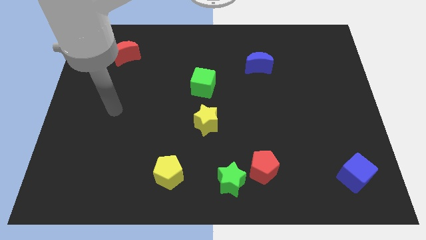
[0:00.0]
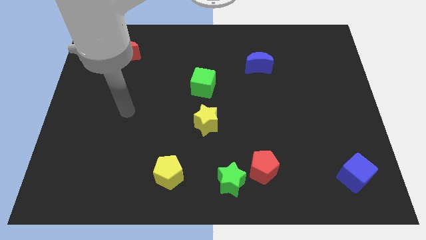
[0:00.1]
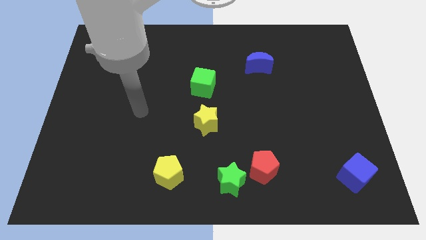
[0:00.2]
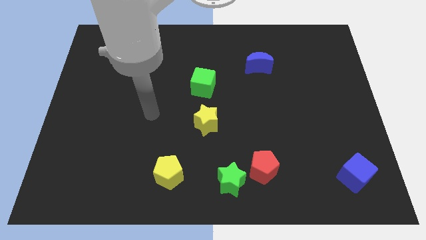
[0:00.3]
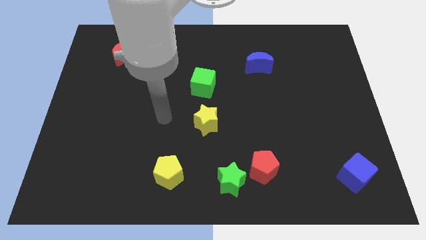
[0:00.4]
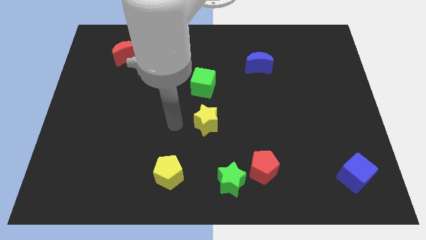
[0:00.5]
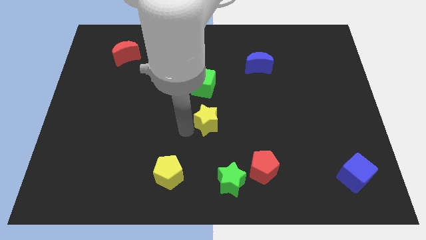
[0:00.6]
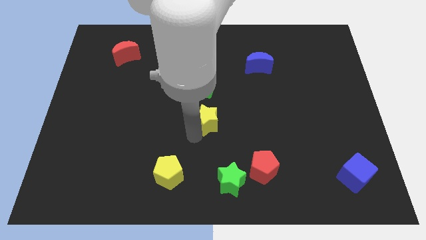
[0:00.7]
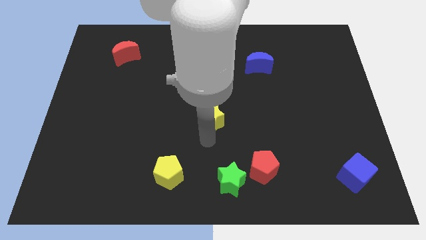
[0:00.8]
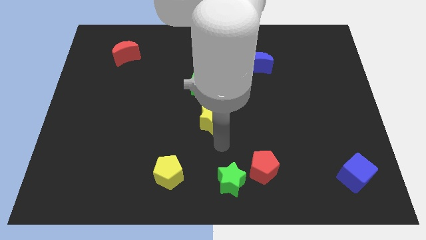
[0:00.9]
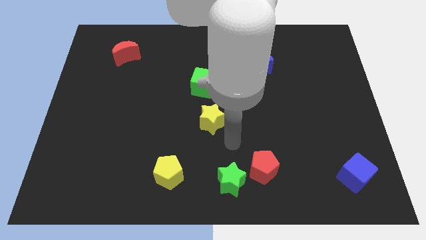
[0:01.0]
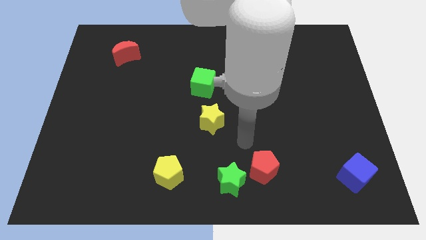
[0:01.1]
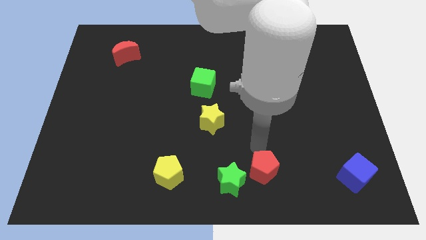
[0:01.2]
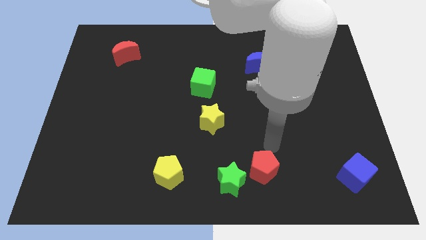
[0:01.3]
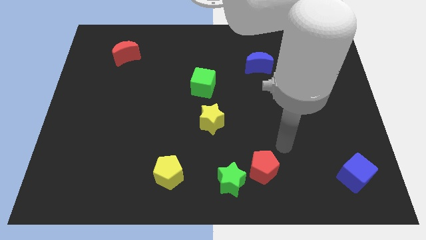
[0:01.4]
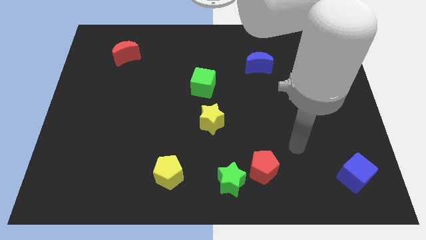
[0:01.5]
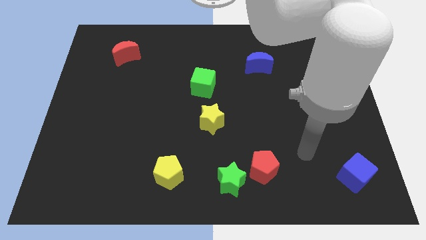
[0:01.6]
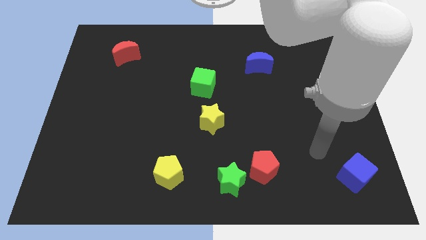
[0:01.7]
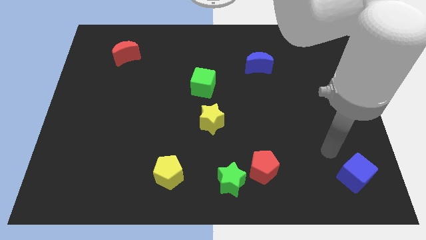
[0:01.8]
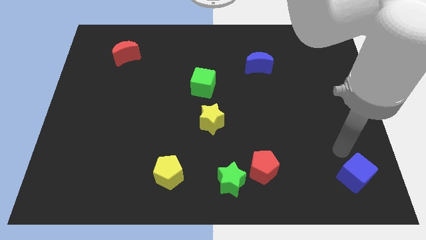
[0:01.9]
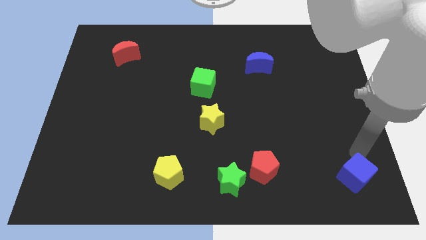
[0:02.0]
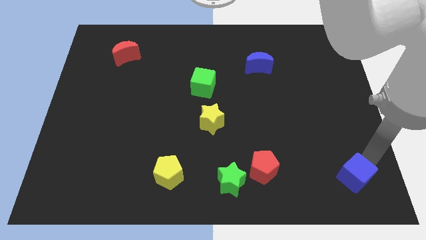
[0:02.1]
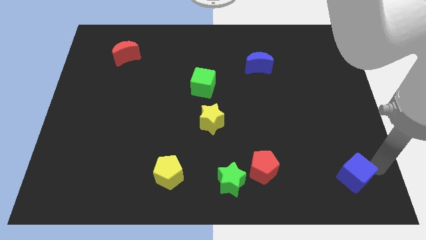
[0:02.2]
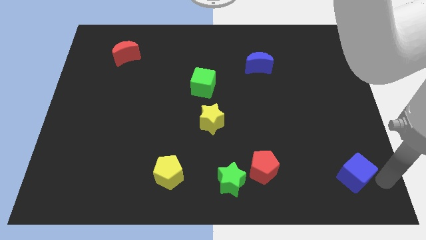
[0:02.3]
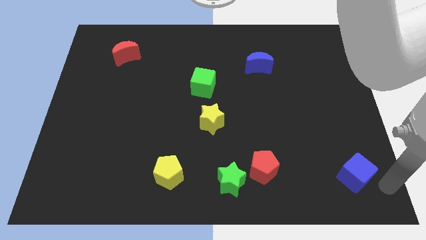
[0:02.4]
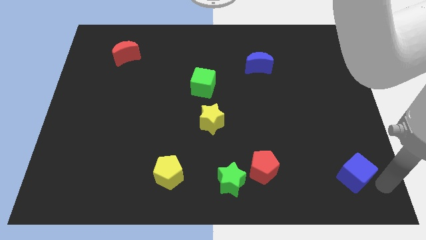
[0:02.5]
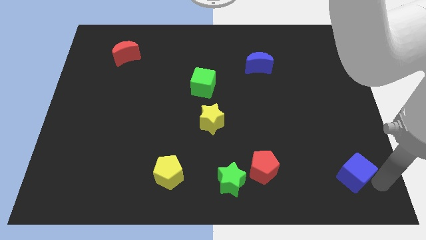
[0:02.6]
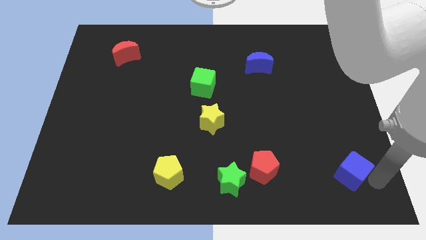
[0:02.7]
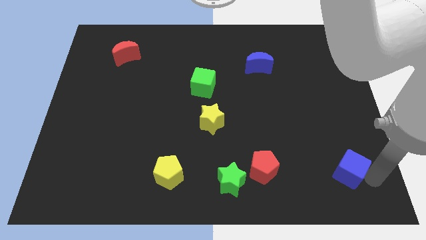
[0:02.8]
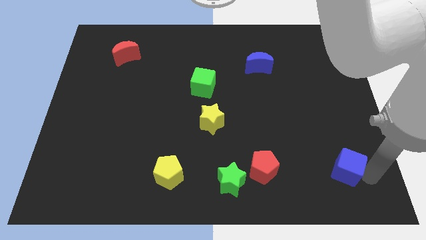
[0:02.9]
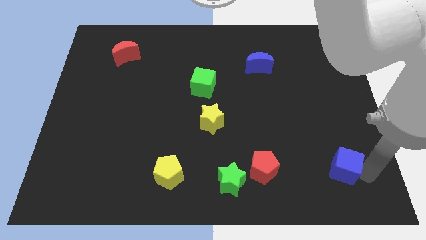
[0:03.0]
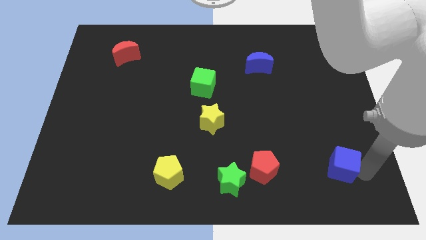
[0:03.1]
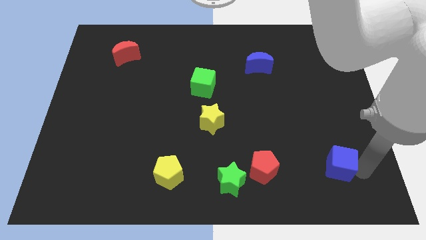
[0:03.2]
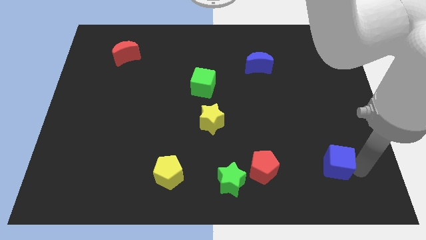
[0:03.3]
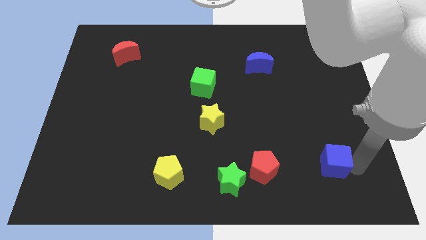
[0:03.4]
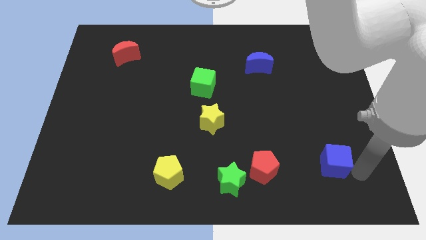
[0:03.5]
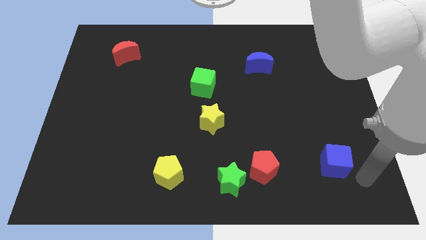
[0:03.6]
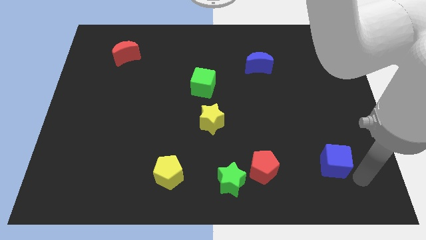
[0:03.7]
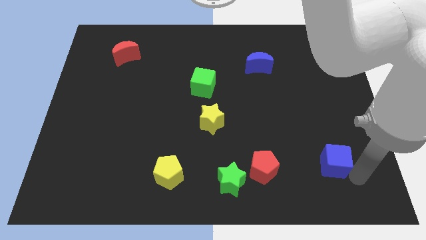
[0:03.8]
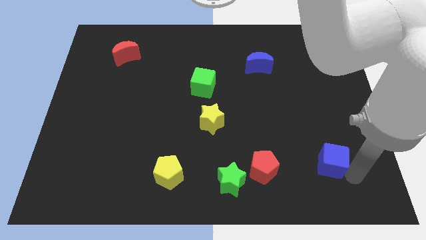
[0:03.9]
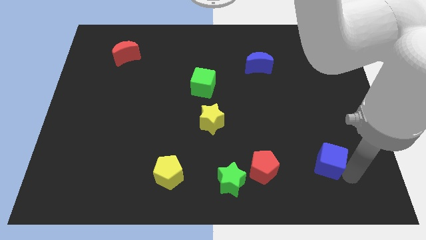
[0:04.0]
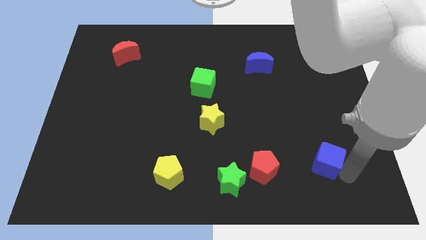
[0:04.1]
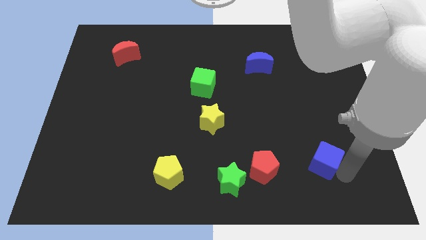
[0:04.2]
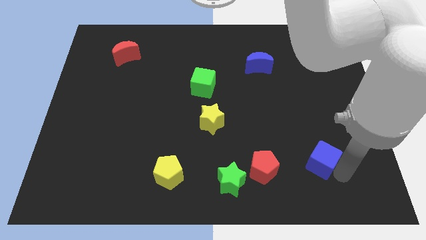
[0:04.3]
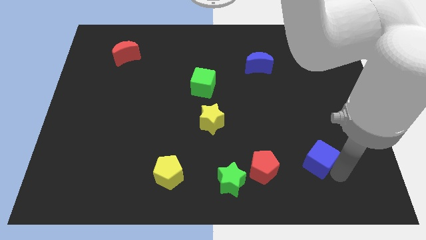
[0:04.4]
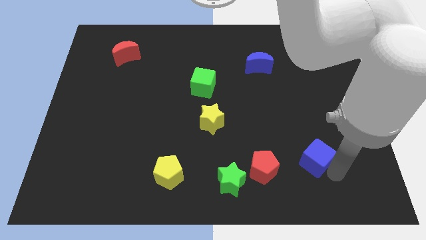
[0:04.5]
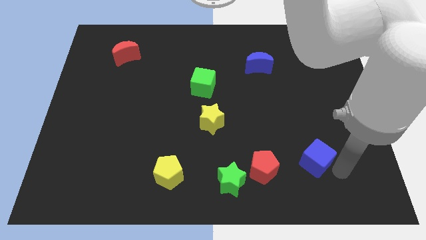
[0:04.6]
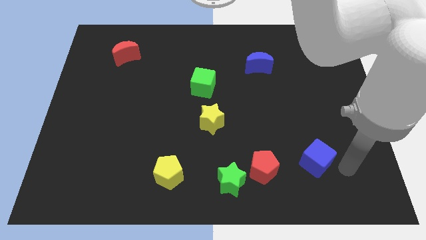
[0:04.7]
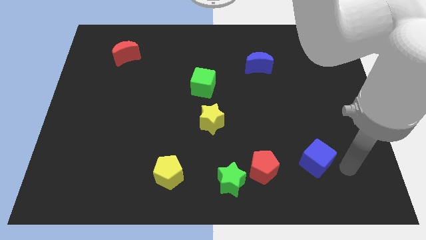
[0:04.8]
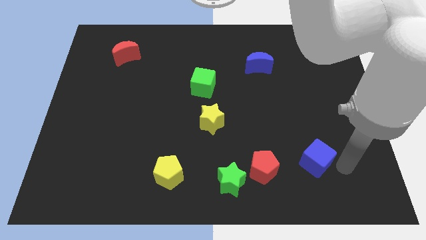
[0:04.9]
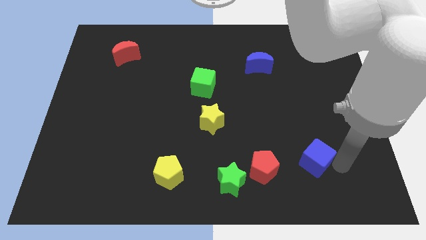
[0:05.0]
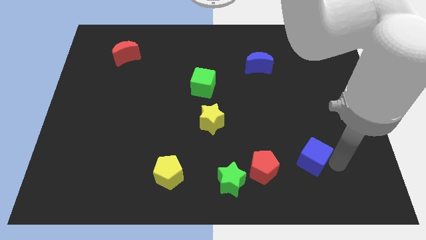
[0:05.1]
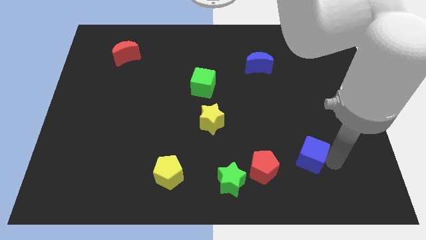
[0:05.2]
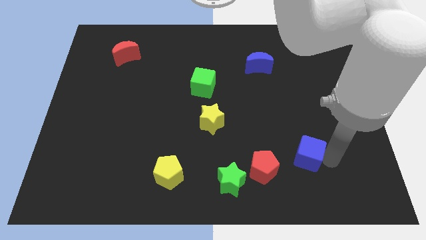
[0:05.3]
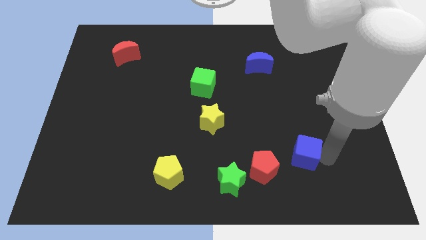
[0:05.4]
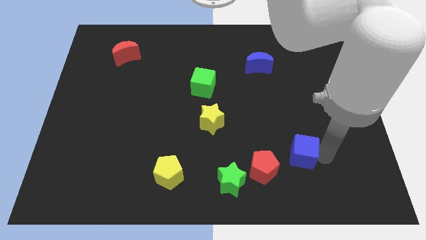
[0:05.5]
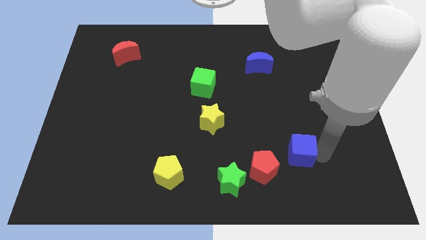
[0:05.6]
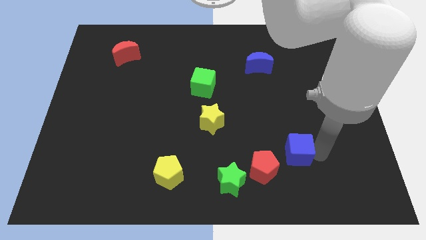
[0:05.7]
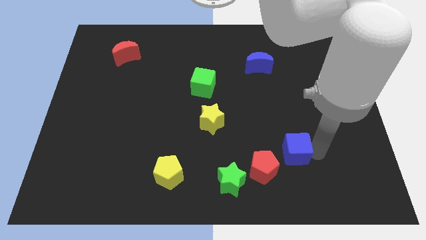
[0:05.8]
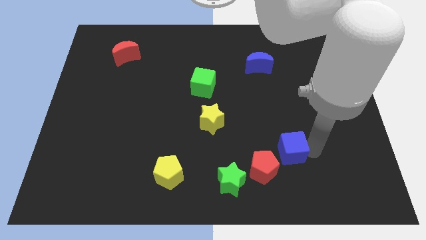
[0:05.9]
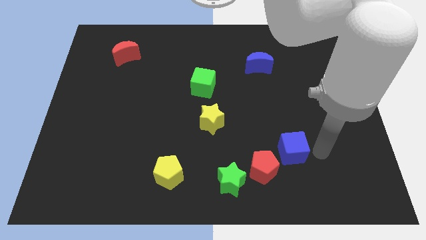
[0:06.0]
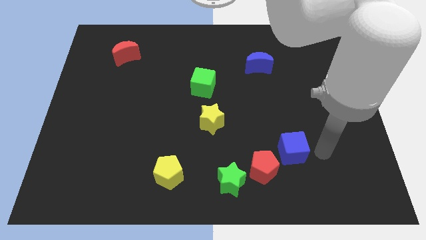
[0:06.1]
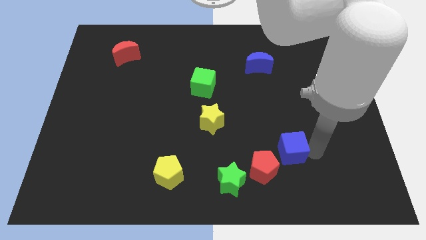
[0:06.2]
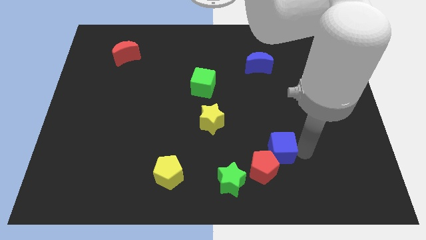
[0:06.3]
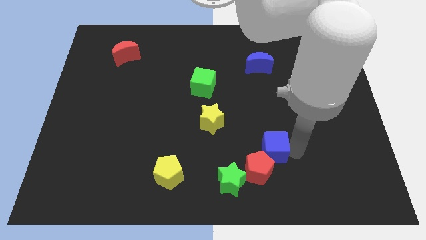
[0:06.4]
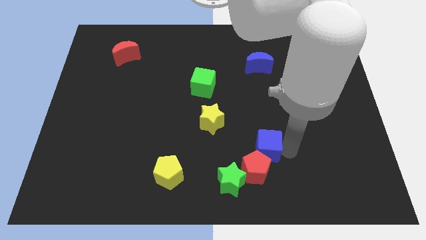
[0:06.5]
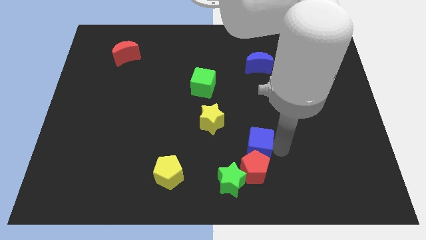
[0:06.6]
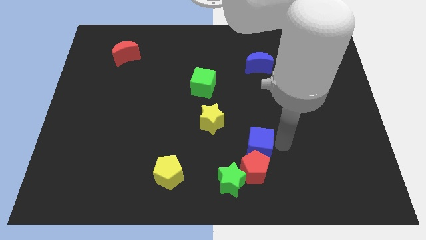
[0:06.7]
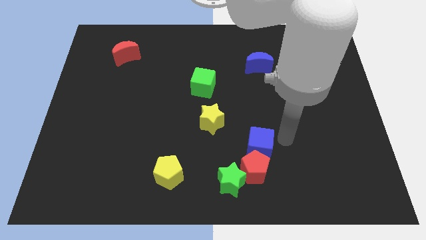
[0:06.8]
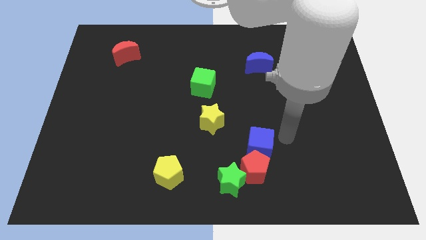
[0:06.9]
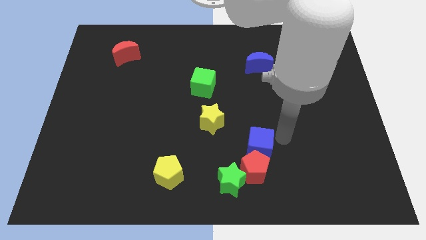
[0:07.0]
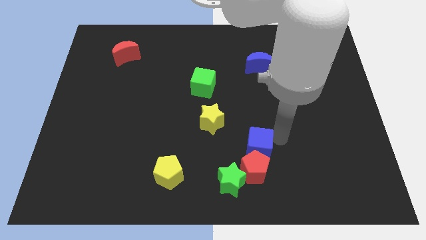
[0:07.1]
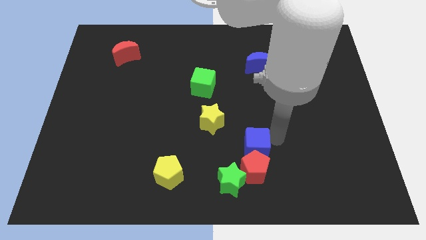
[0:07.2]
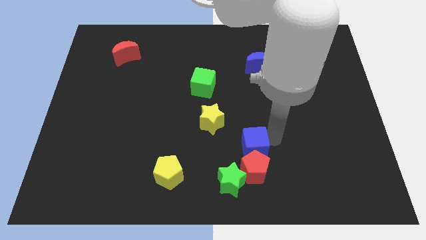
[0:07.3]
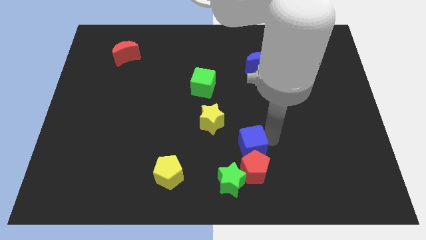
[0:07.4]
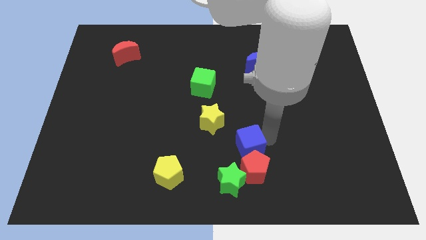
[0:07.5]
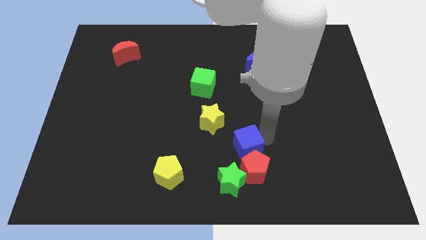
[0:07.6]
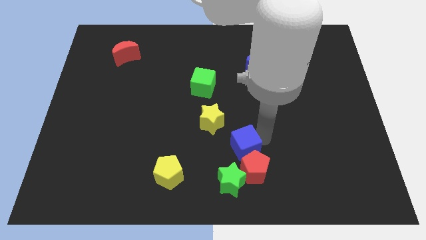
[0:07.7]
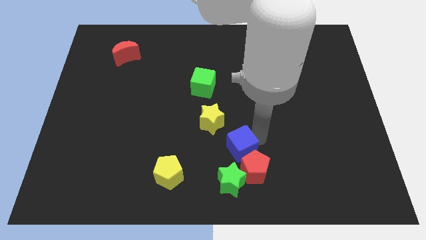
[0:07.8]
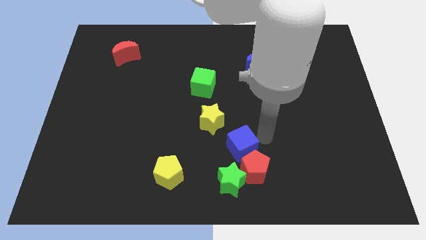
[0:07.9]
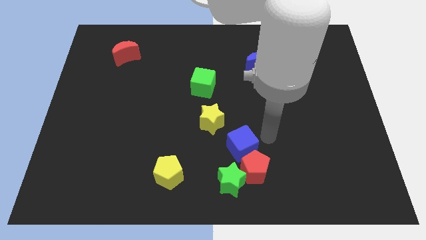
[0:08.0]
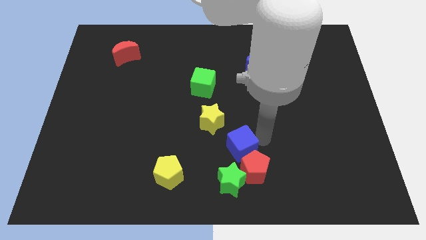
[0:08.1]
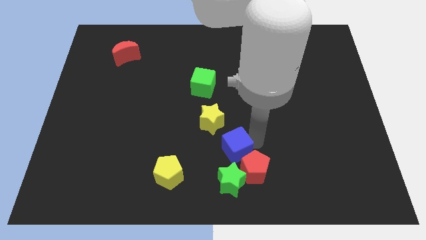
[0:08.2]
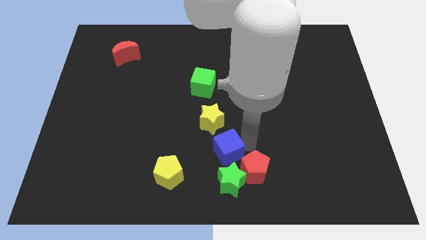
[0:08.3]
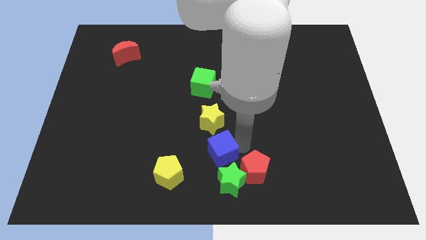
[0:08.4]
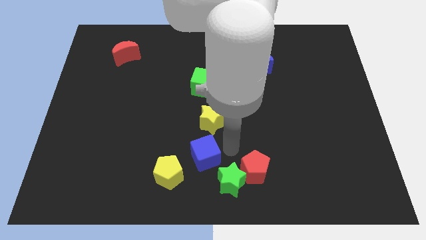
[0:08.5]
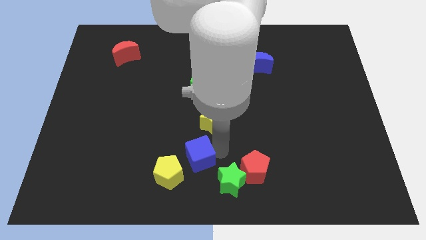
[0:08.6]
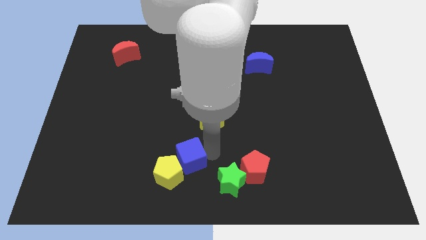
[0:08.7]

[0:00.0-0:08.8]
move the blue cube next to the yellow pentagon
